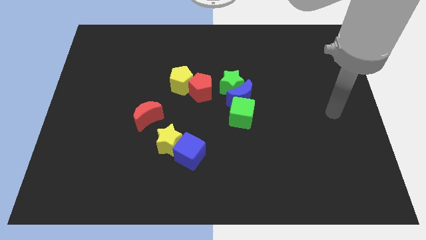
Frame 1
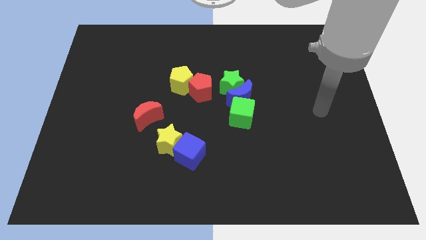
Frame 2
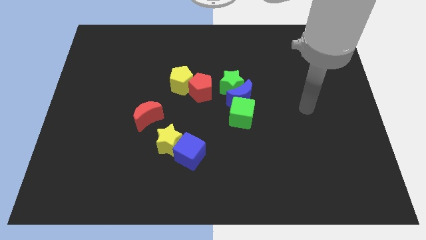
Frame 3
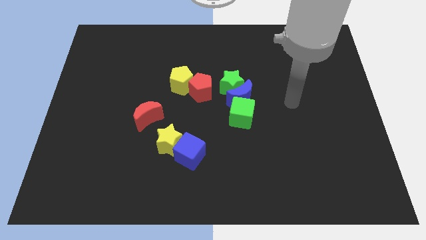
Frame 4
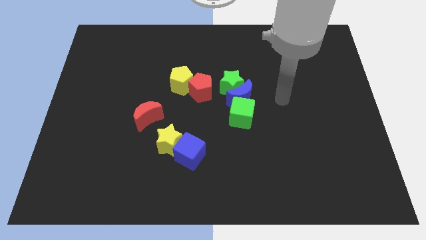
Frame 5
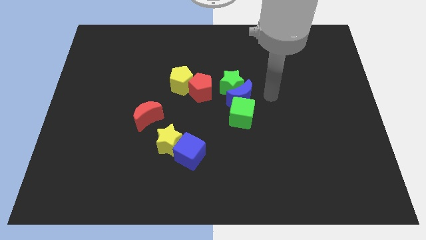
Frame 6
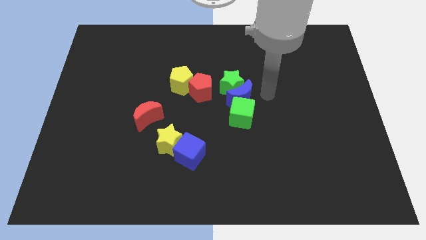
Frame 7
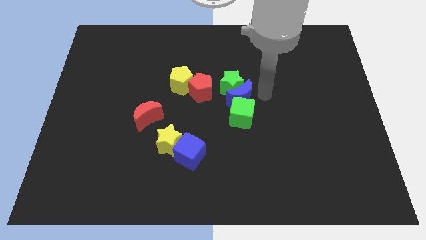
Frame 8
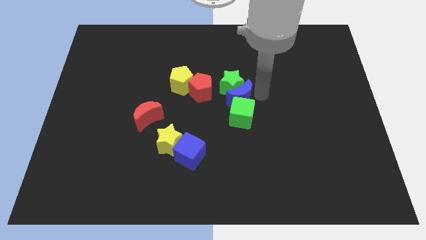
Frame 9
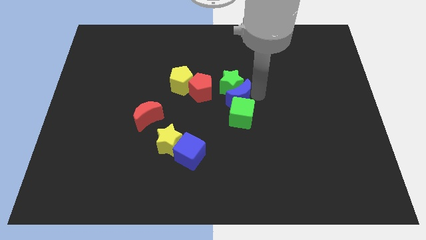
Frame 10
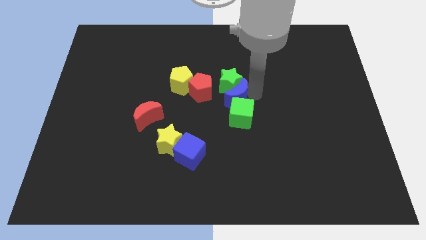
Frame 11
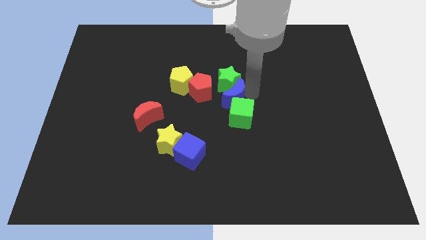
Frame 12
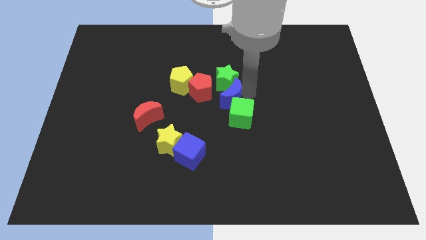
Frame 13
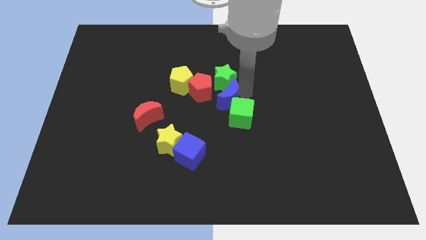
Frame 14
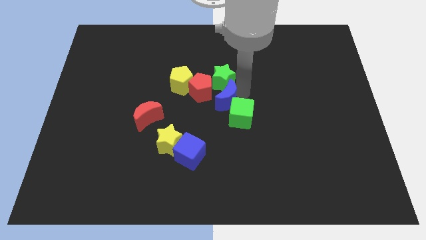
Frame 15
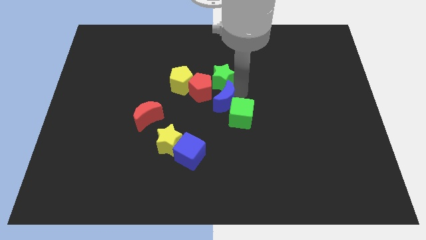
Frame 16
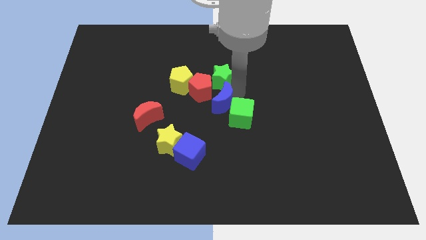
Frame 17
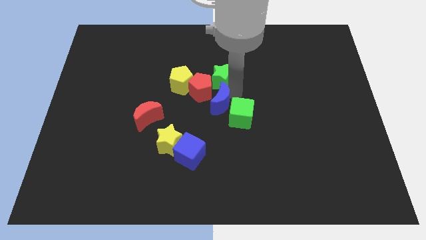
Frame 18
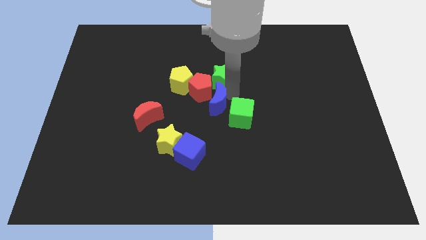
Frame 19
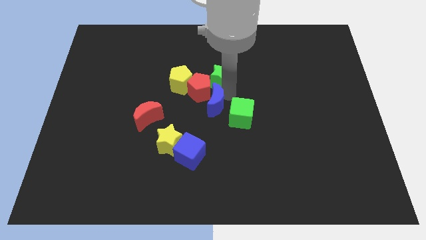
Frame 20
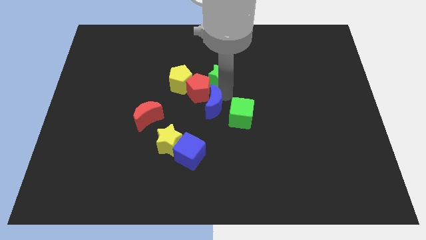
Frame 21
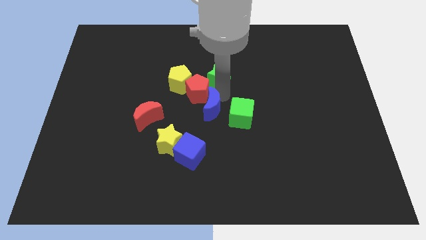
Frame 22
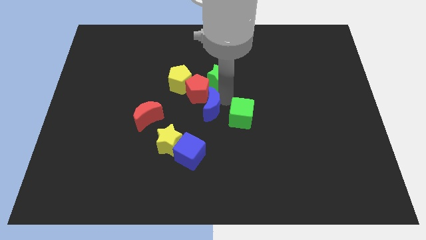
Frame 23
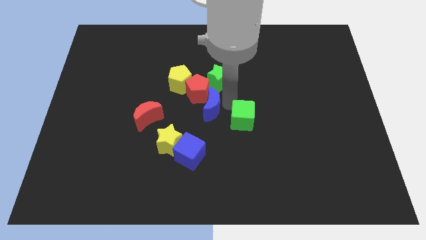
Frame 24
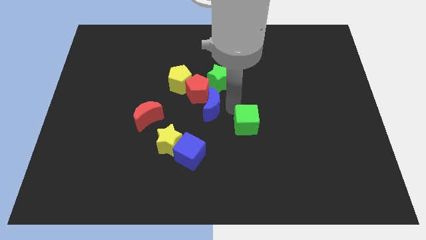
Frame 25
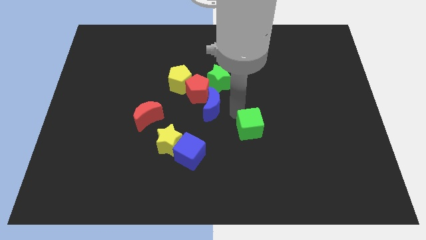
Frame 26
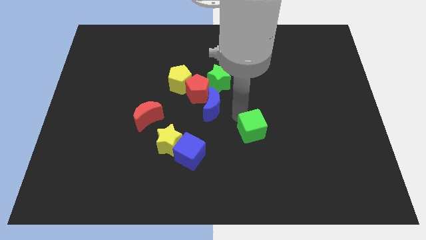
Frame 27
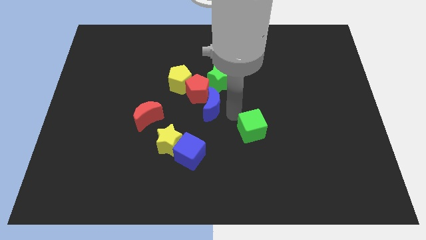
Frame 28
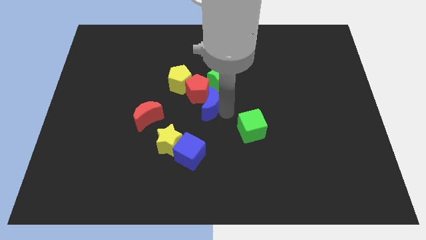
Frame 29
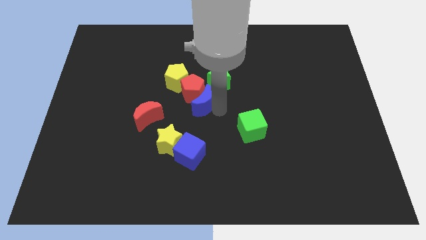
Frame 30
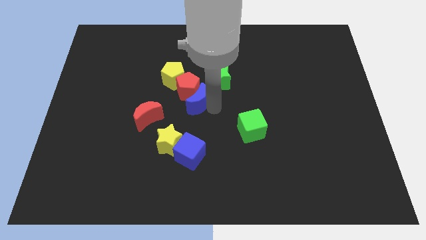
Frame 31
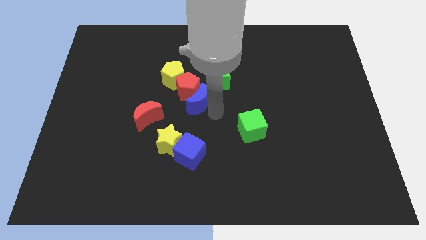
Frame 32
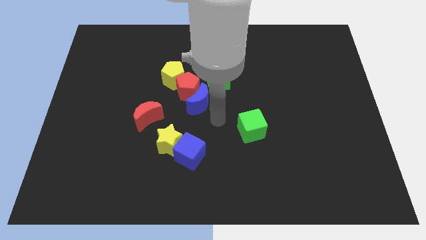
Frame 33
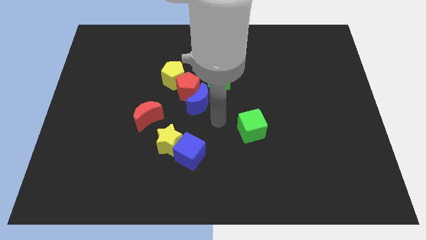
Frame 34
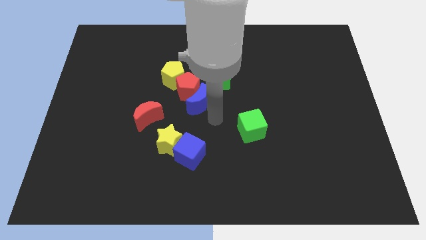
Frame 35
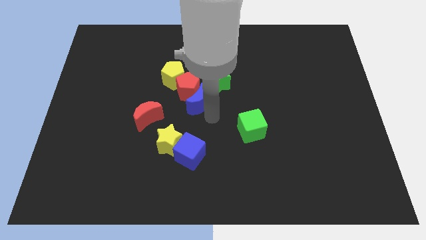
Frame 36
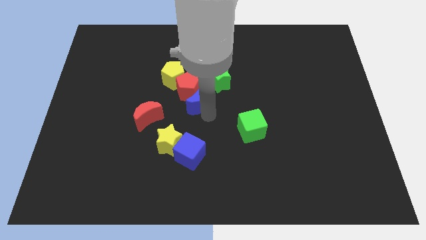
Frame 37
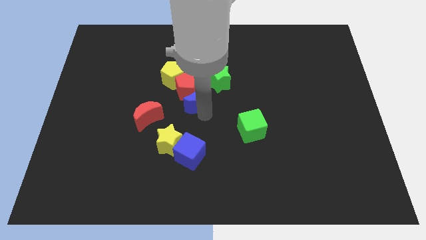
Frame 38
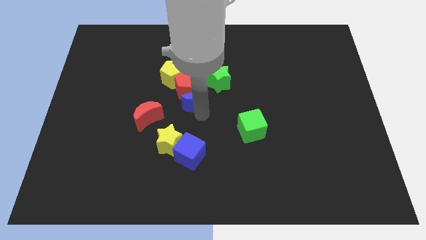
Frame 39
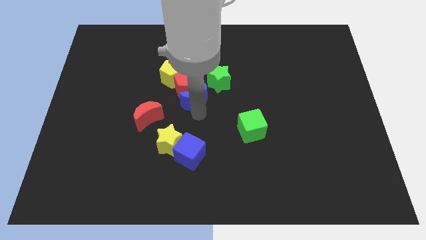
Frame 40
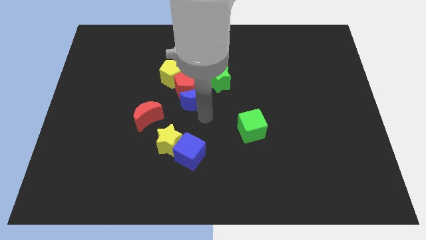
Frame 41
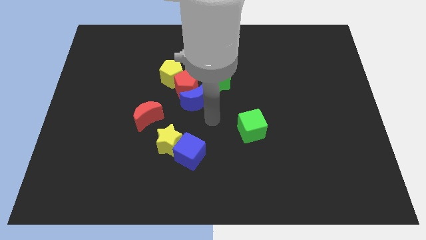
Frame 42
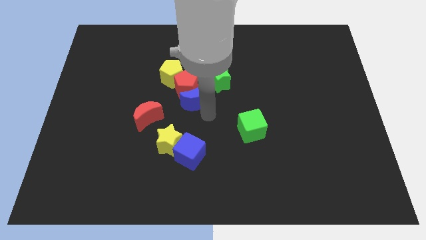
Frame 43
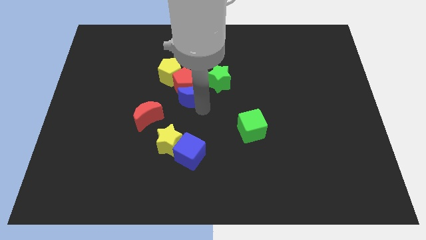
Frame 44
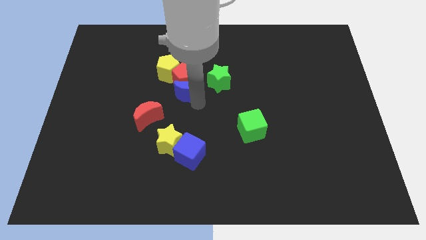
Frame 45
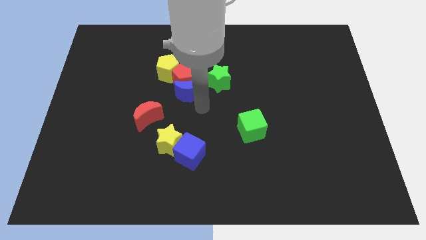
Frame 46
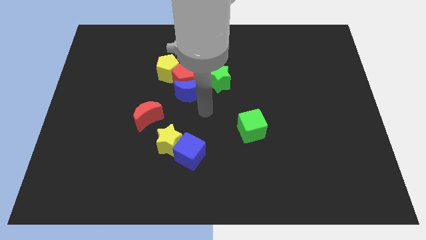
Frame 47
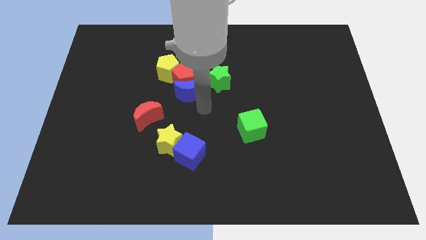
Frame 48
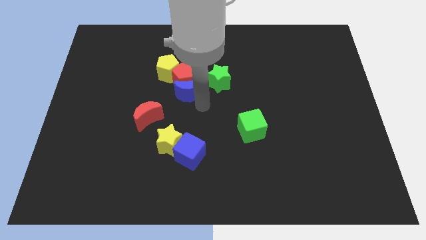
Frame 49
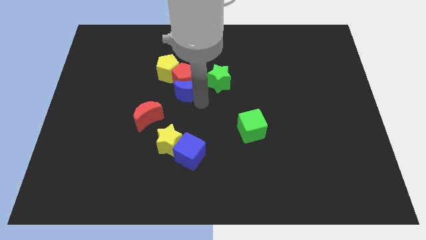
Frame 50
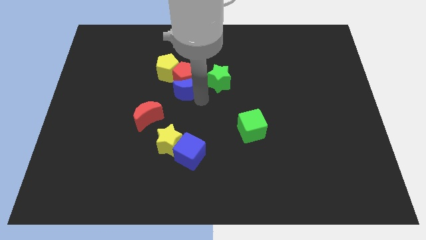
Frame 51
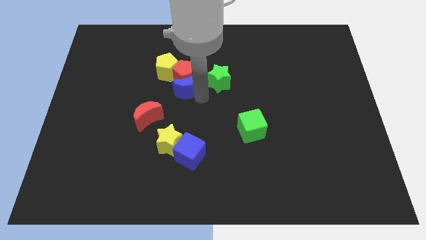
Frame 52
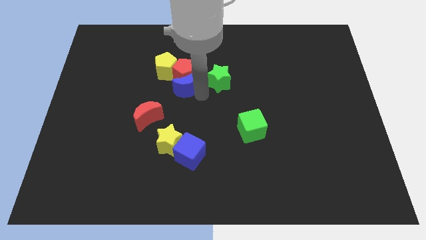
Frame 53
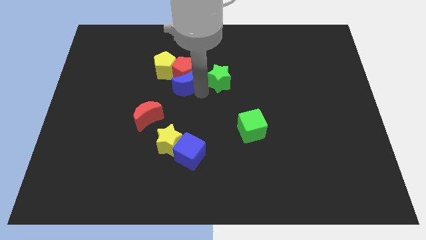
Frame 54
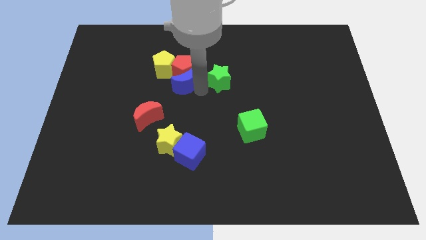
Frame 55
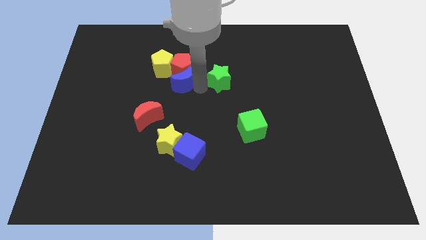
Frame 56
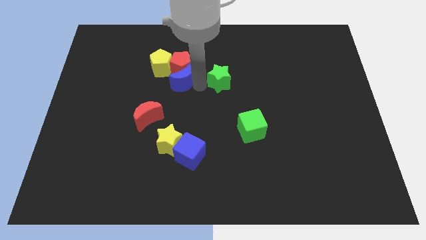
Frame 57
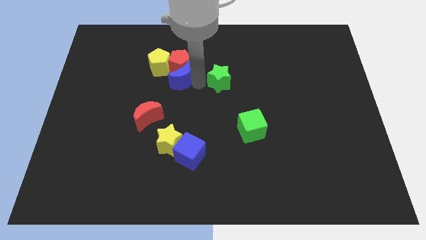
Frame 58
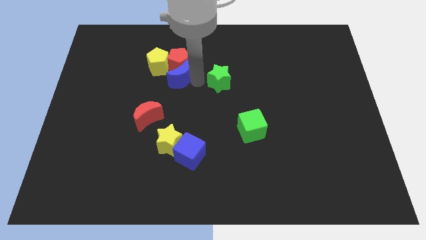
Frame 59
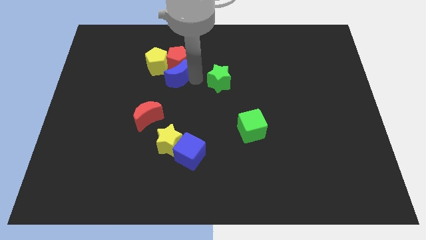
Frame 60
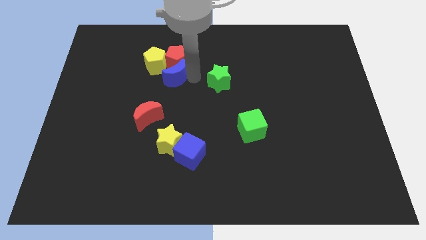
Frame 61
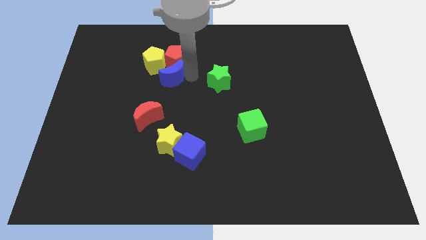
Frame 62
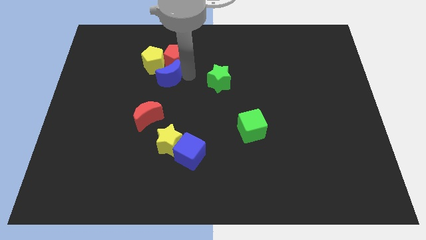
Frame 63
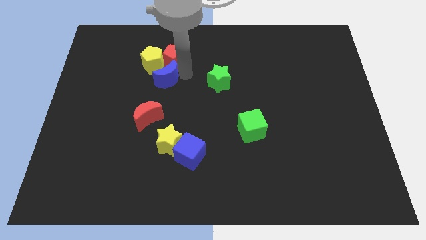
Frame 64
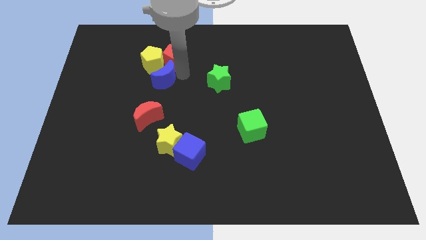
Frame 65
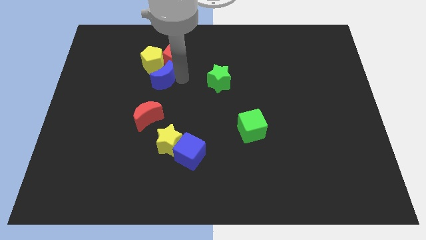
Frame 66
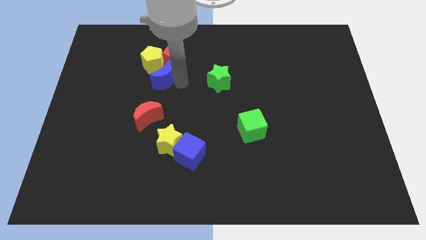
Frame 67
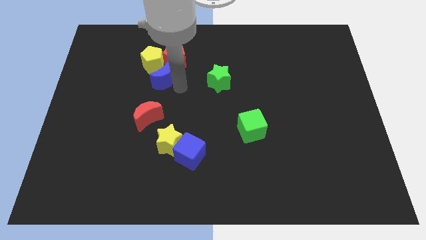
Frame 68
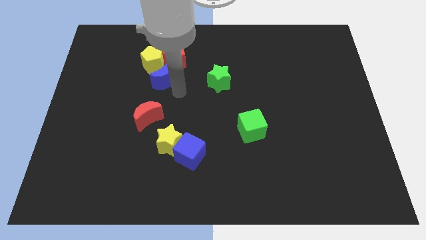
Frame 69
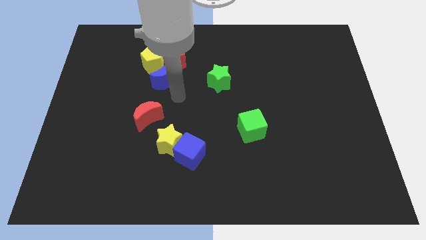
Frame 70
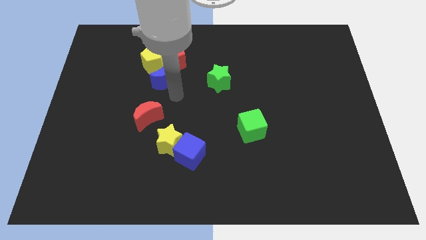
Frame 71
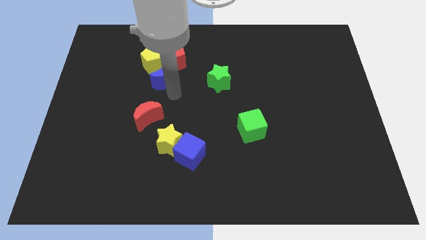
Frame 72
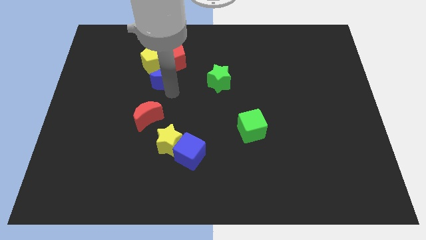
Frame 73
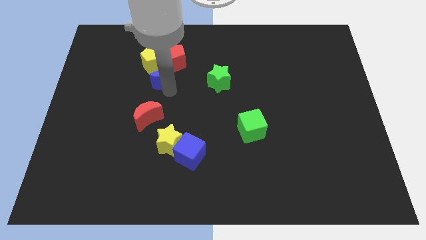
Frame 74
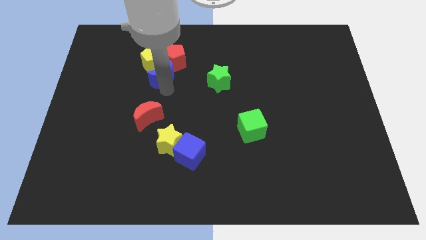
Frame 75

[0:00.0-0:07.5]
put the blue moon towards the yellow pentagon
